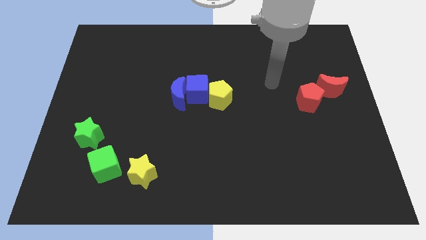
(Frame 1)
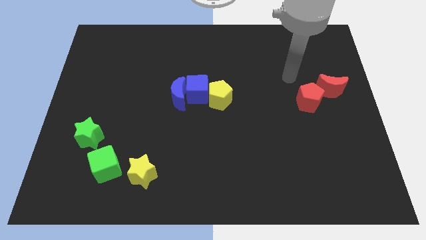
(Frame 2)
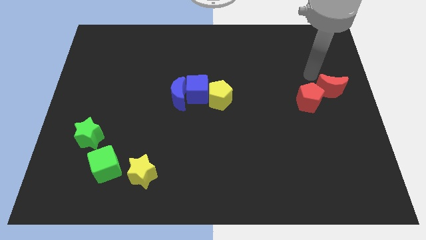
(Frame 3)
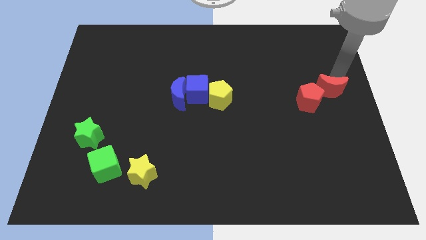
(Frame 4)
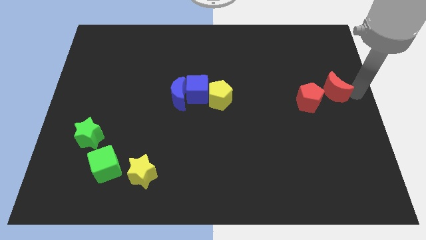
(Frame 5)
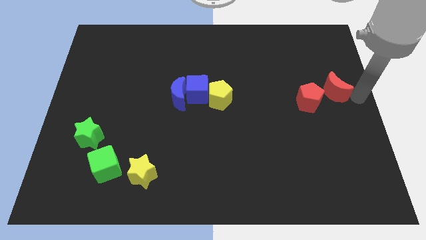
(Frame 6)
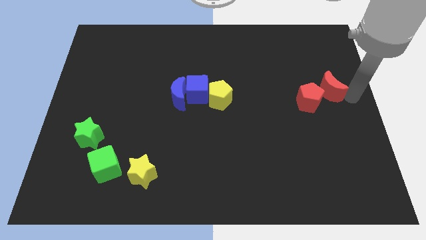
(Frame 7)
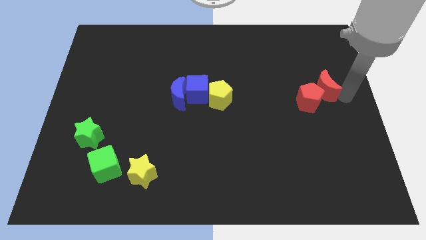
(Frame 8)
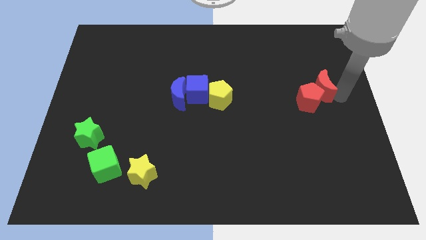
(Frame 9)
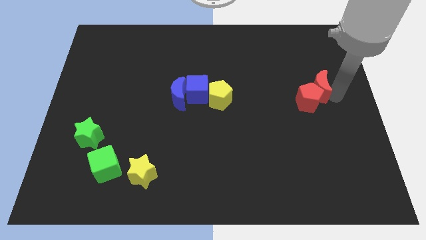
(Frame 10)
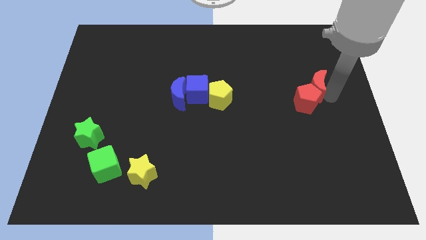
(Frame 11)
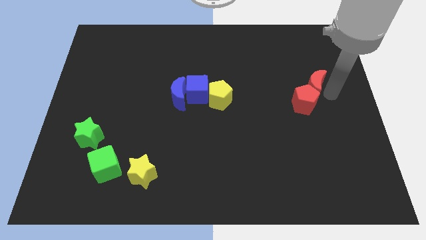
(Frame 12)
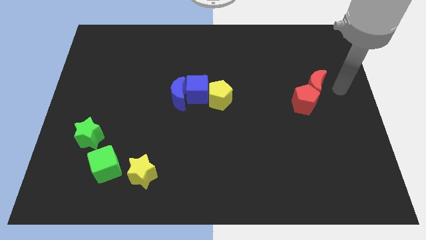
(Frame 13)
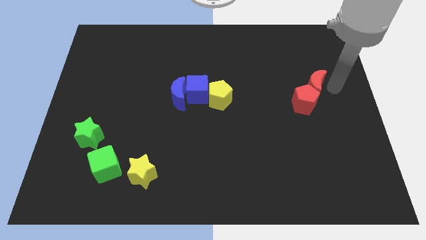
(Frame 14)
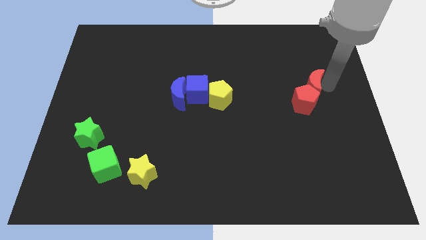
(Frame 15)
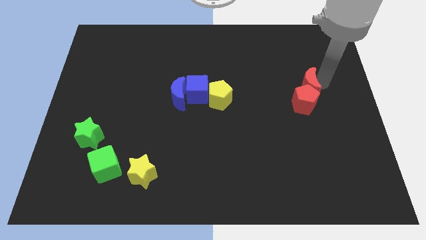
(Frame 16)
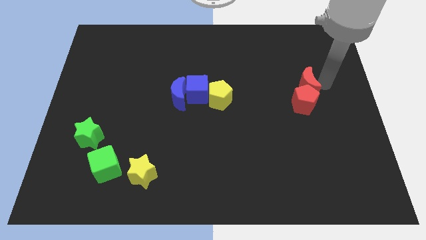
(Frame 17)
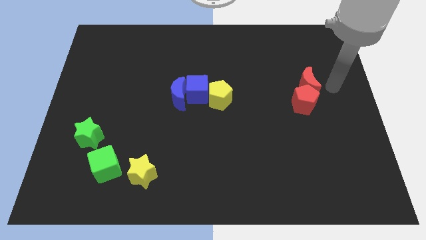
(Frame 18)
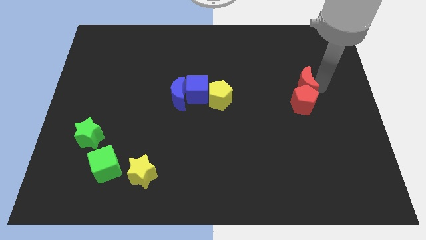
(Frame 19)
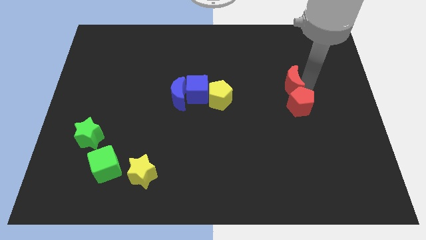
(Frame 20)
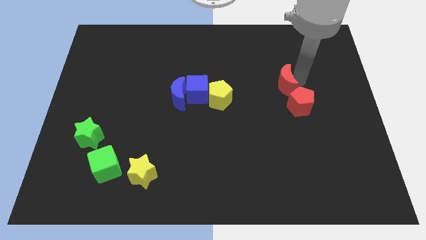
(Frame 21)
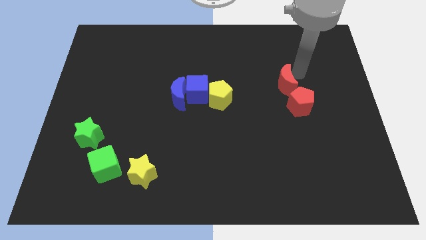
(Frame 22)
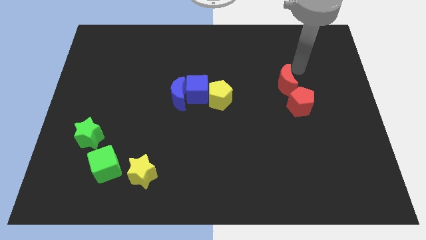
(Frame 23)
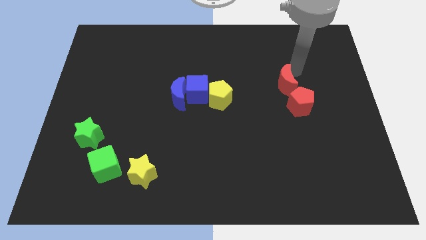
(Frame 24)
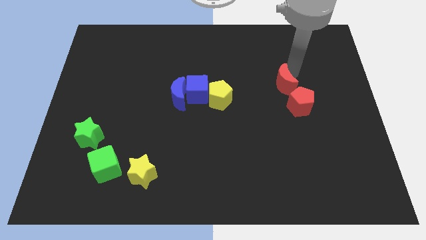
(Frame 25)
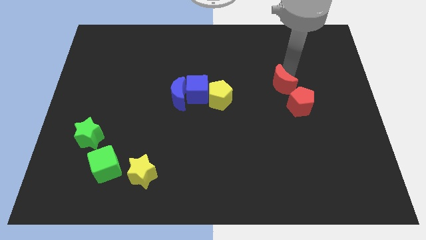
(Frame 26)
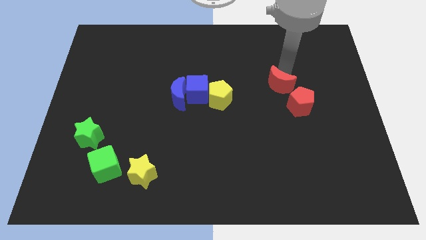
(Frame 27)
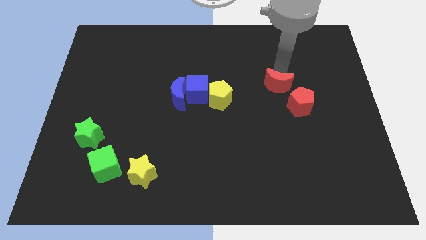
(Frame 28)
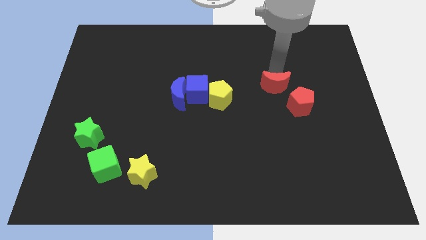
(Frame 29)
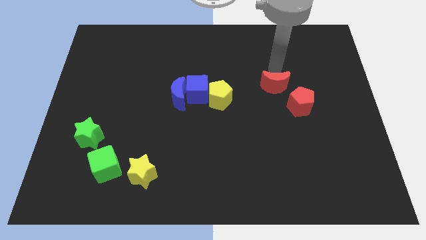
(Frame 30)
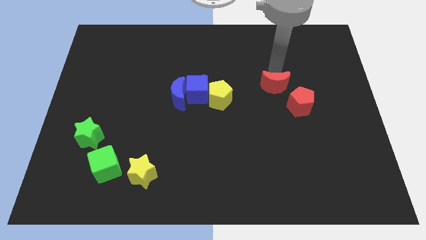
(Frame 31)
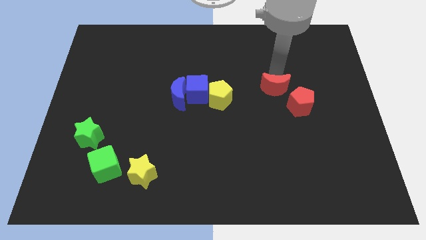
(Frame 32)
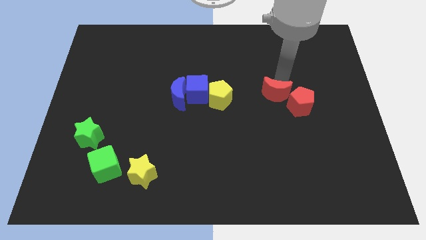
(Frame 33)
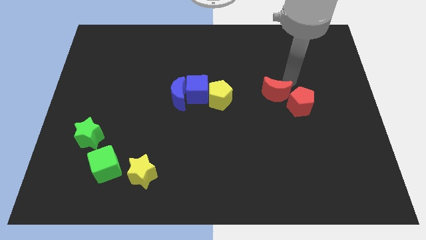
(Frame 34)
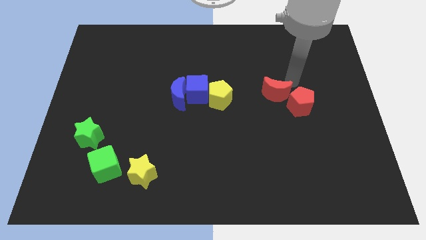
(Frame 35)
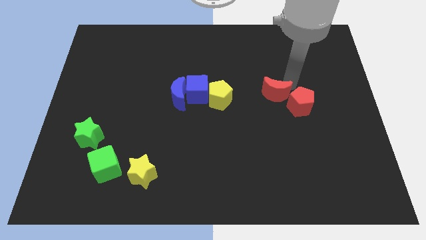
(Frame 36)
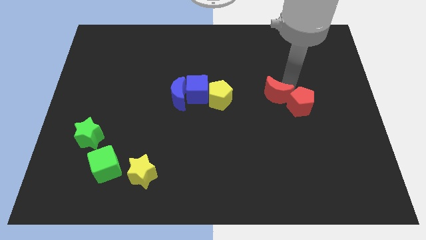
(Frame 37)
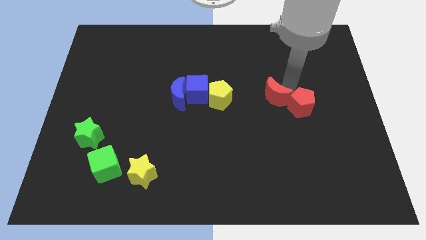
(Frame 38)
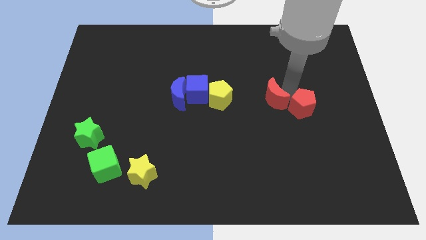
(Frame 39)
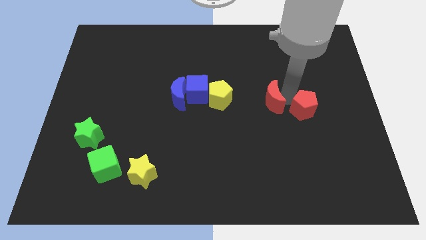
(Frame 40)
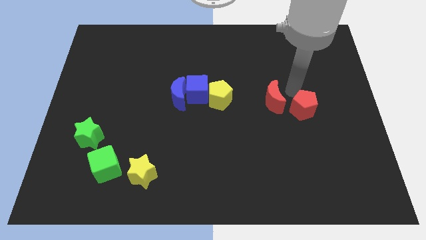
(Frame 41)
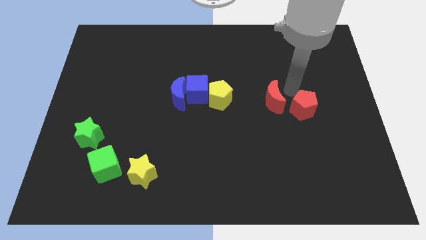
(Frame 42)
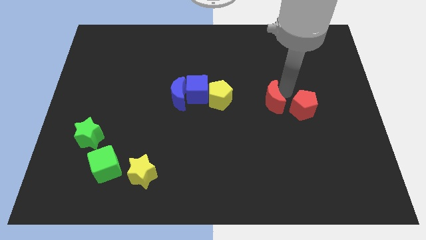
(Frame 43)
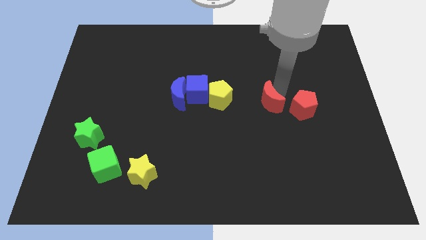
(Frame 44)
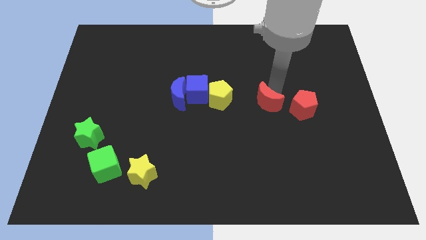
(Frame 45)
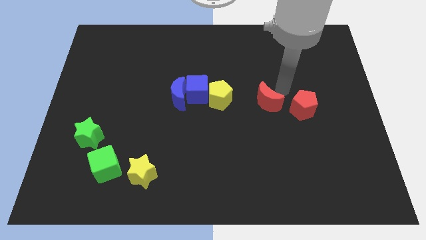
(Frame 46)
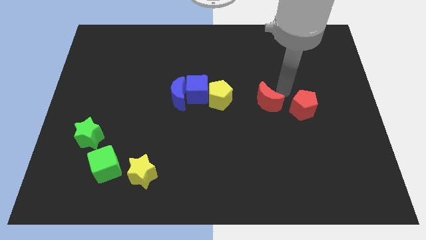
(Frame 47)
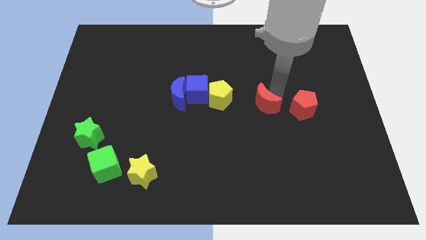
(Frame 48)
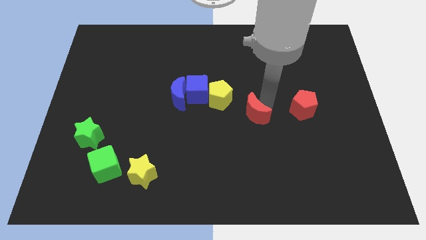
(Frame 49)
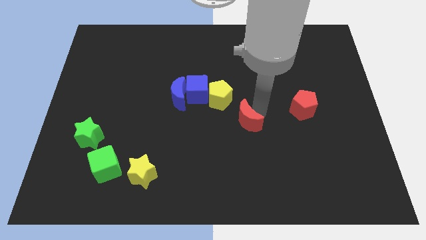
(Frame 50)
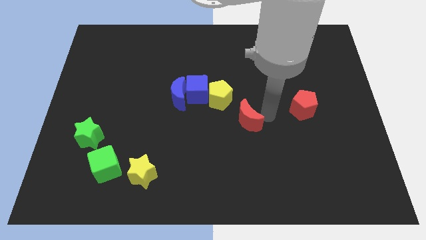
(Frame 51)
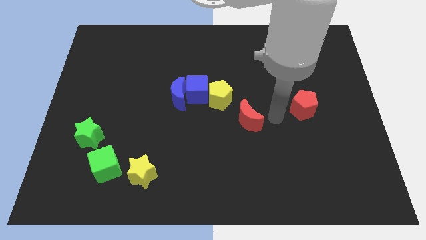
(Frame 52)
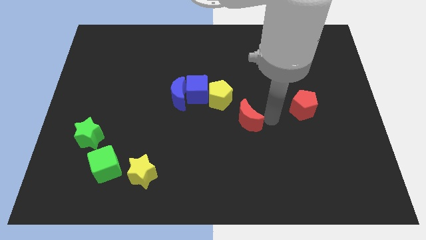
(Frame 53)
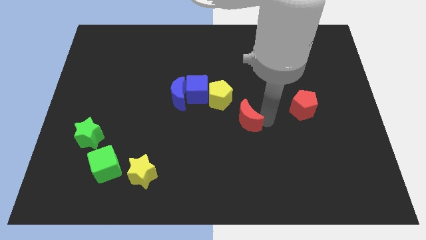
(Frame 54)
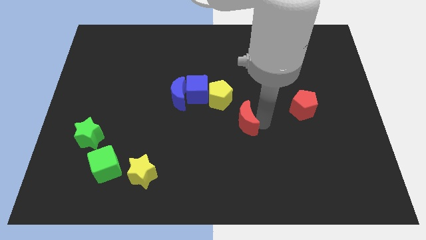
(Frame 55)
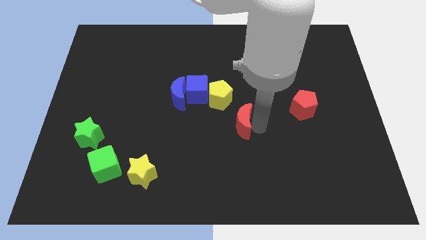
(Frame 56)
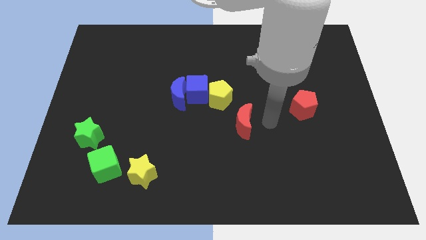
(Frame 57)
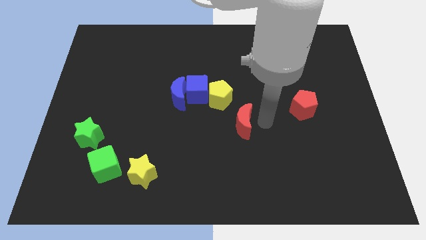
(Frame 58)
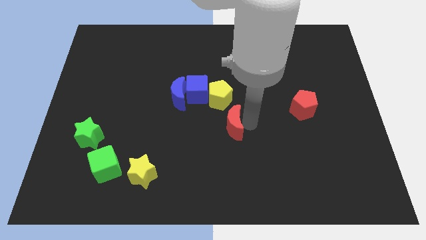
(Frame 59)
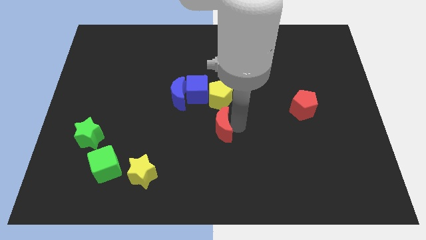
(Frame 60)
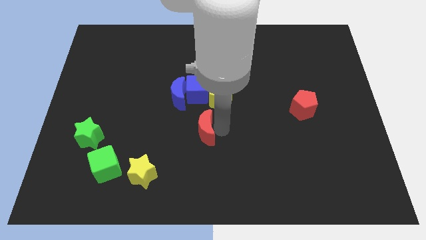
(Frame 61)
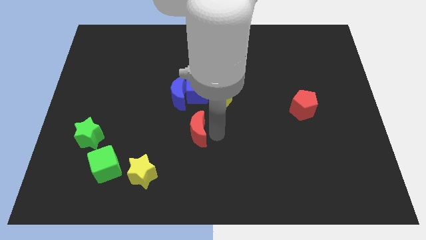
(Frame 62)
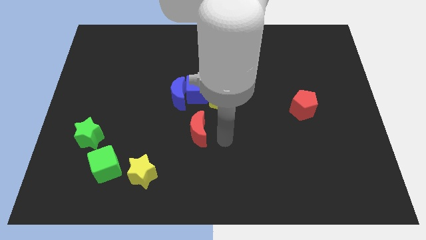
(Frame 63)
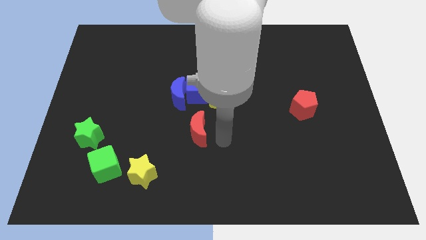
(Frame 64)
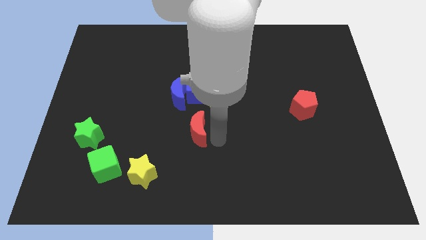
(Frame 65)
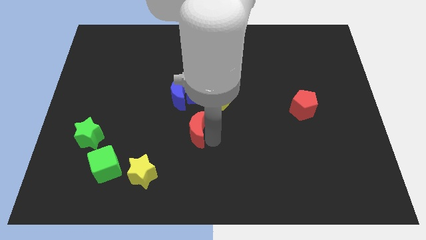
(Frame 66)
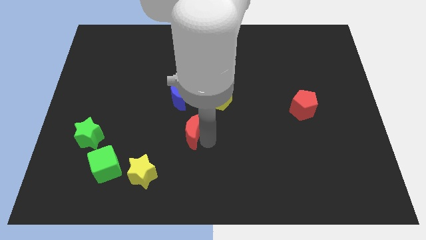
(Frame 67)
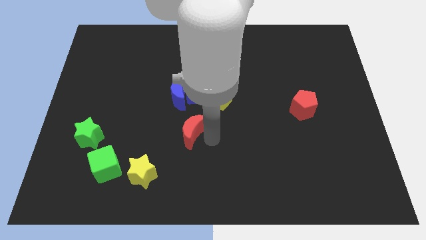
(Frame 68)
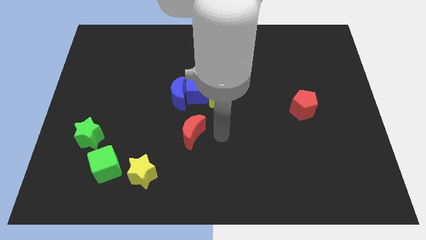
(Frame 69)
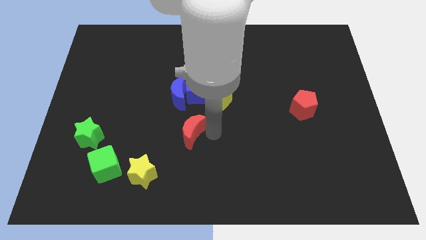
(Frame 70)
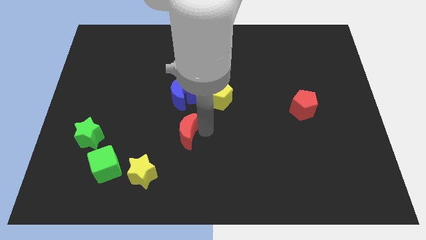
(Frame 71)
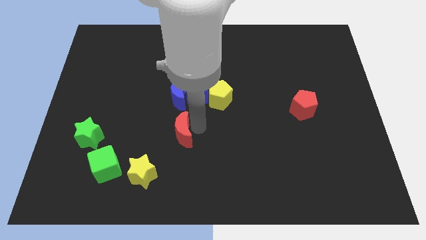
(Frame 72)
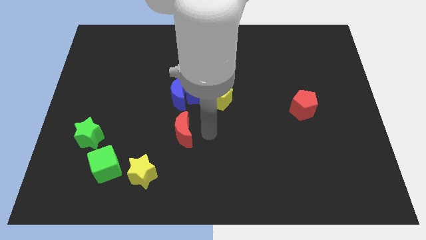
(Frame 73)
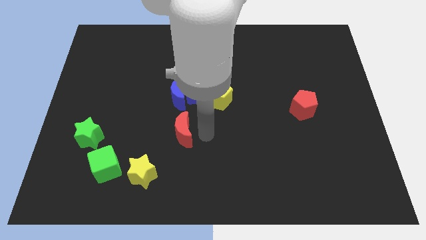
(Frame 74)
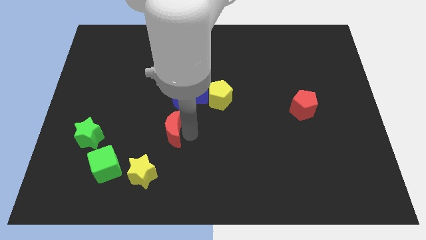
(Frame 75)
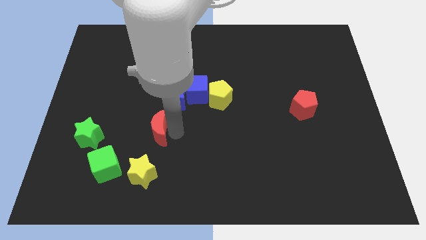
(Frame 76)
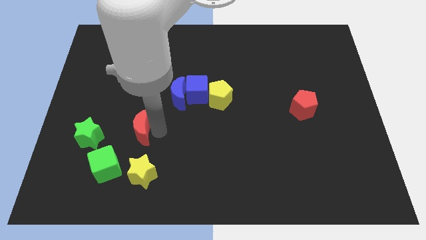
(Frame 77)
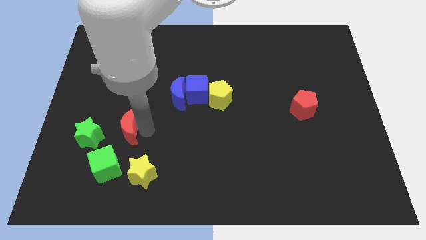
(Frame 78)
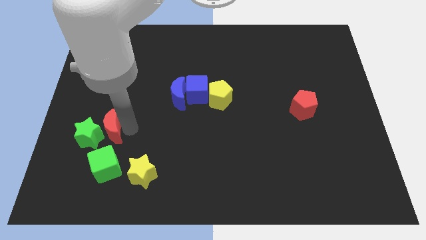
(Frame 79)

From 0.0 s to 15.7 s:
put the red moon next to the green star
